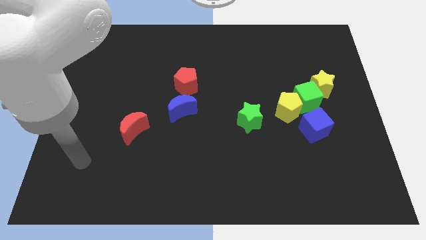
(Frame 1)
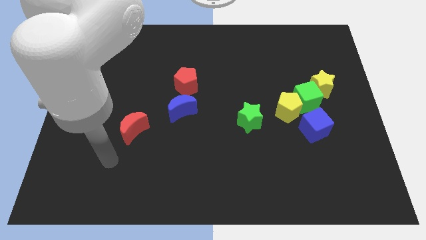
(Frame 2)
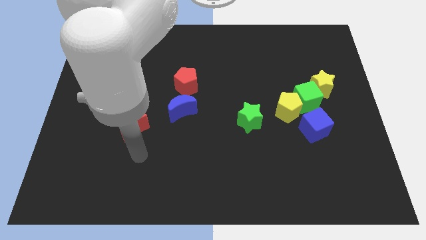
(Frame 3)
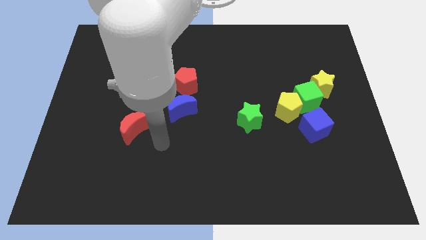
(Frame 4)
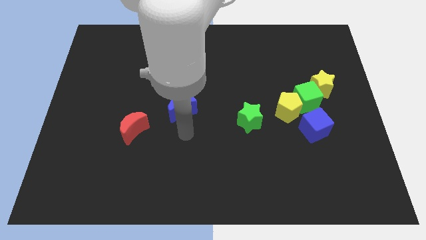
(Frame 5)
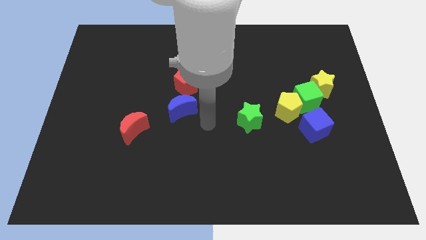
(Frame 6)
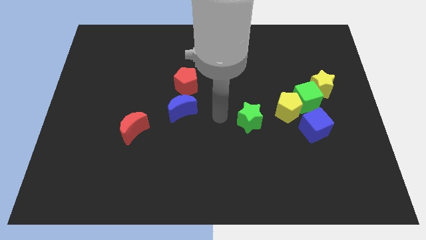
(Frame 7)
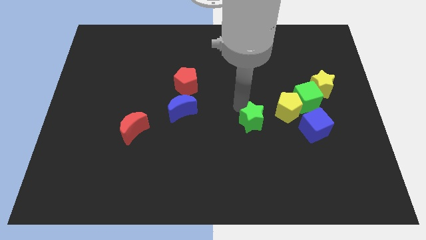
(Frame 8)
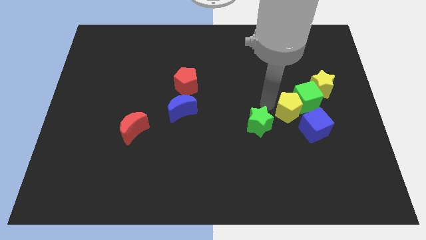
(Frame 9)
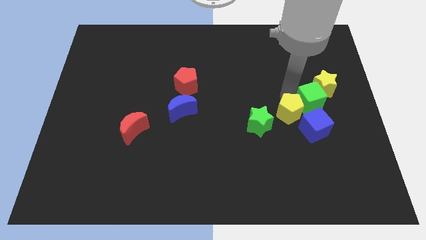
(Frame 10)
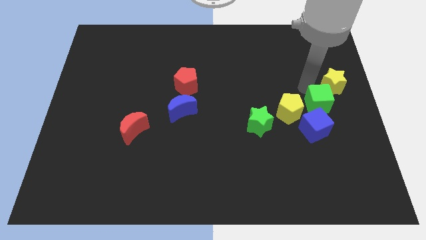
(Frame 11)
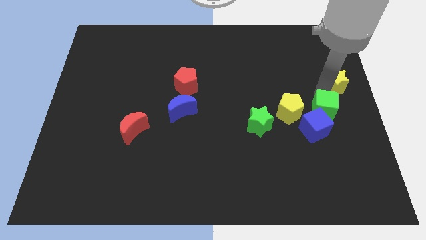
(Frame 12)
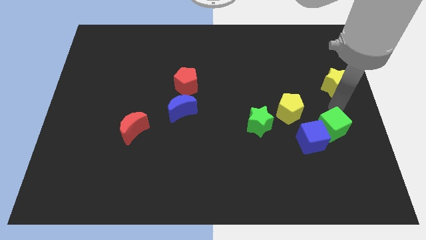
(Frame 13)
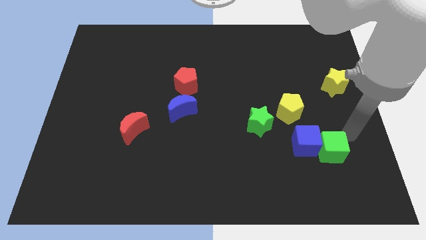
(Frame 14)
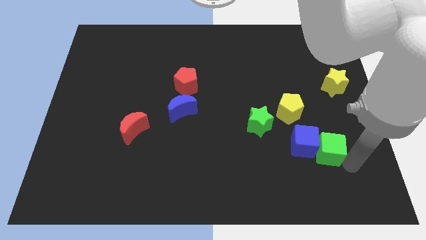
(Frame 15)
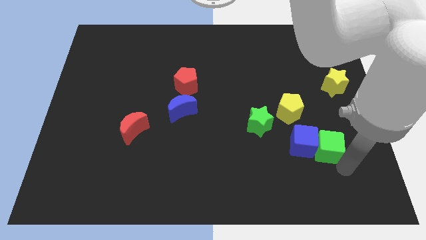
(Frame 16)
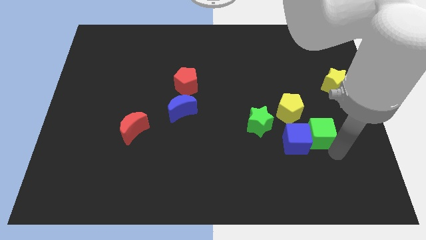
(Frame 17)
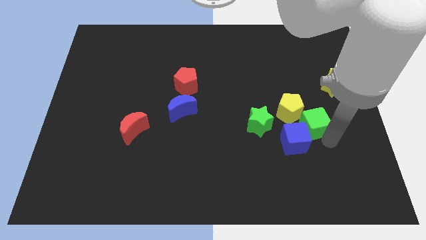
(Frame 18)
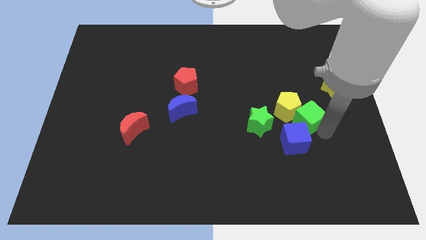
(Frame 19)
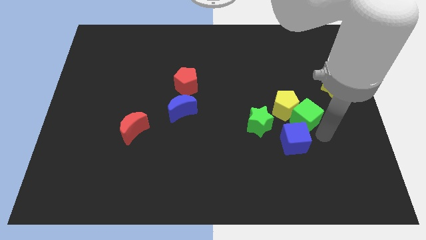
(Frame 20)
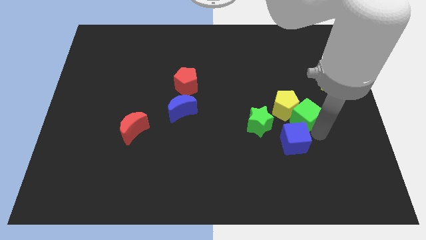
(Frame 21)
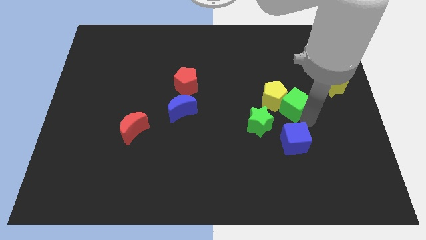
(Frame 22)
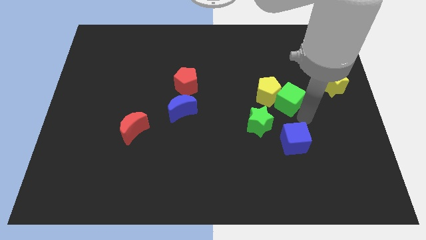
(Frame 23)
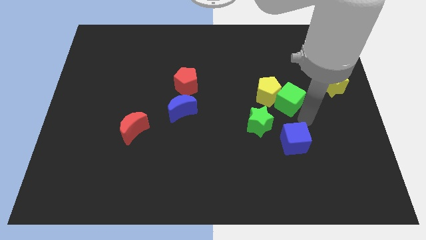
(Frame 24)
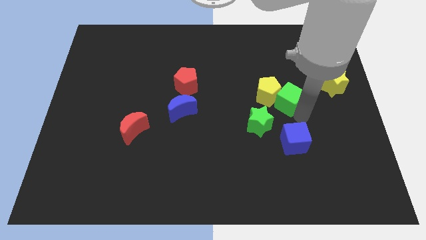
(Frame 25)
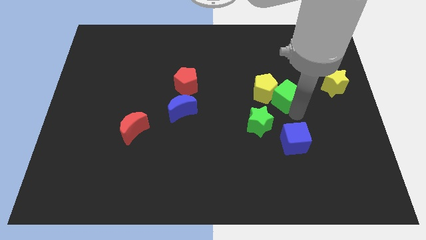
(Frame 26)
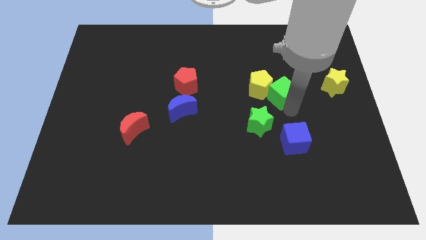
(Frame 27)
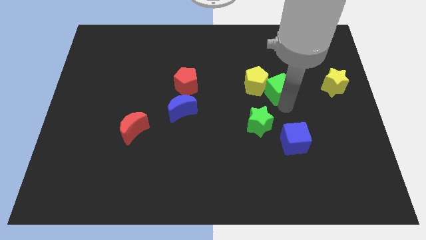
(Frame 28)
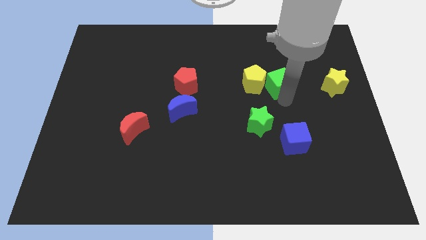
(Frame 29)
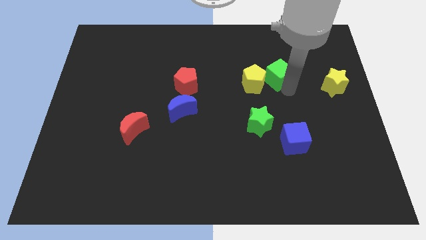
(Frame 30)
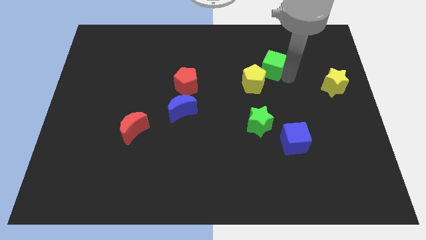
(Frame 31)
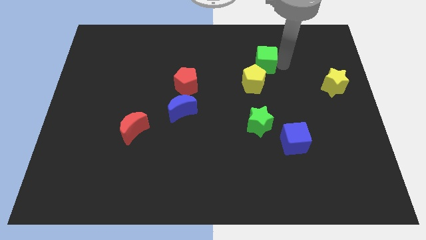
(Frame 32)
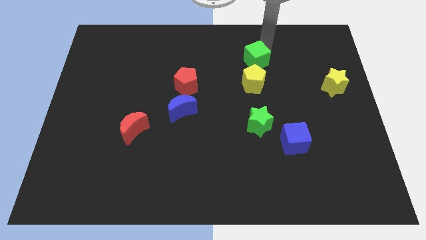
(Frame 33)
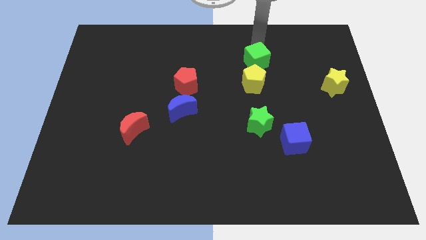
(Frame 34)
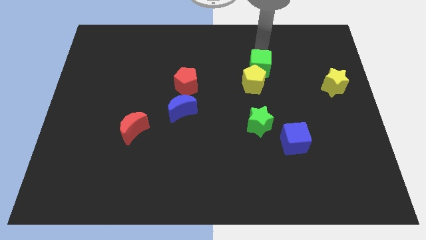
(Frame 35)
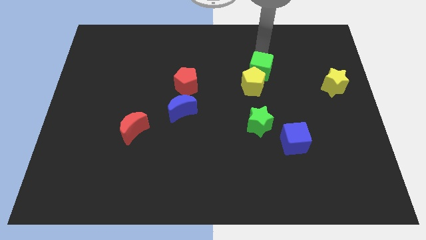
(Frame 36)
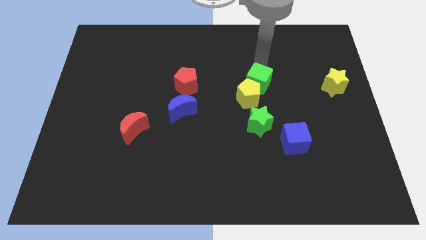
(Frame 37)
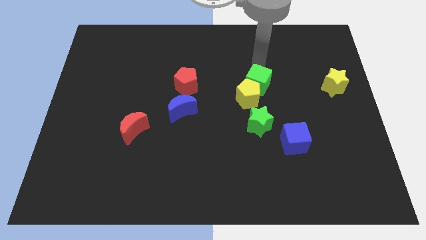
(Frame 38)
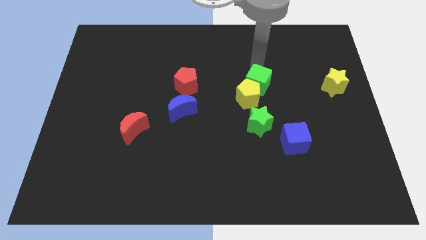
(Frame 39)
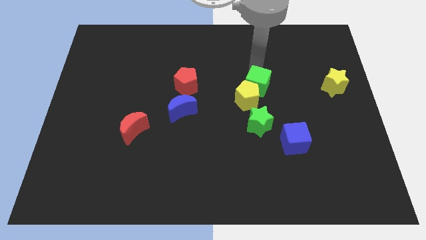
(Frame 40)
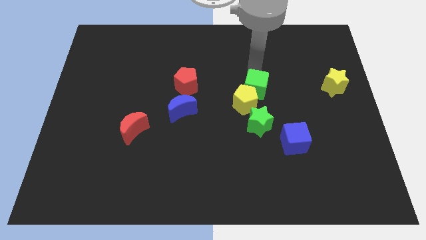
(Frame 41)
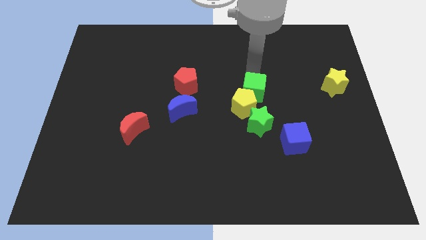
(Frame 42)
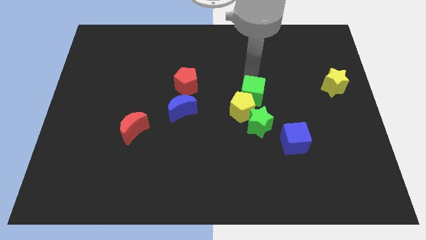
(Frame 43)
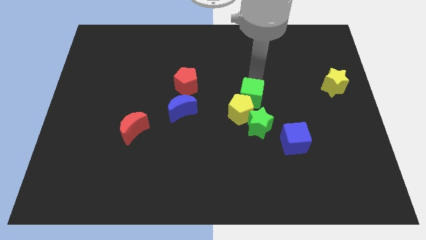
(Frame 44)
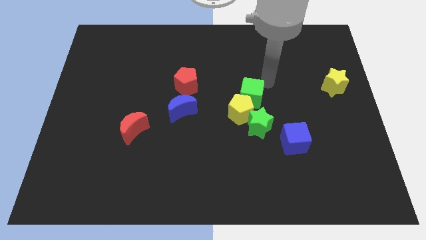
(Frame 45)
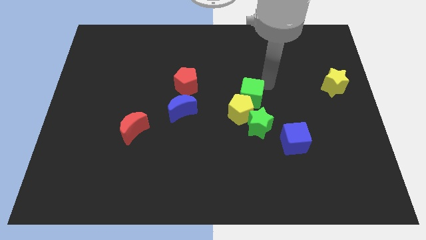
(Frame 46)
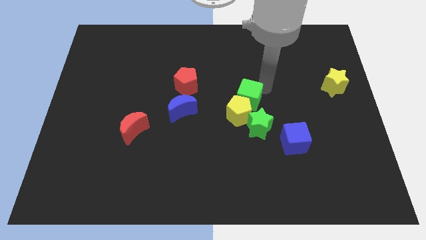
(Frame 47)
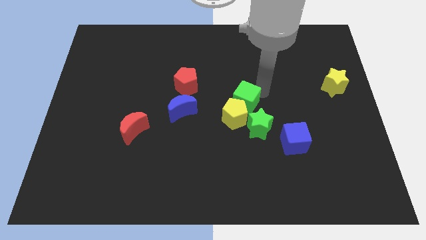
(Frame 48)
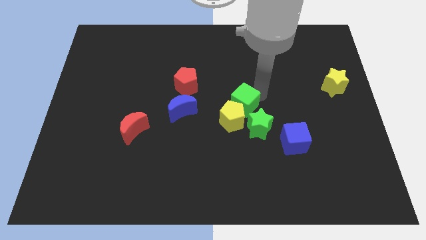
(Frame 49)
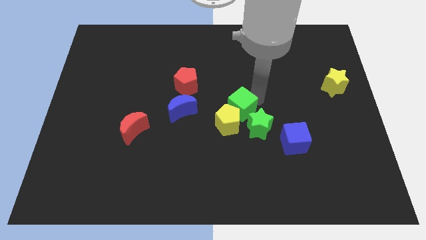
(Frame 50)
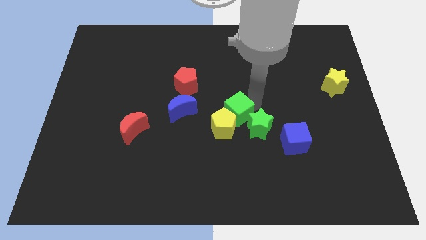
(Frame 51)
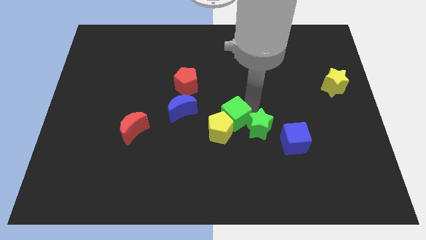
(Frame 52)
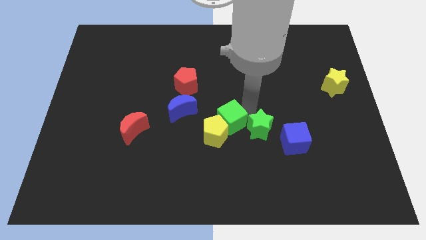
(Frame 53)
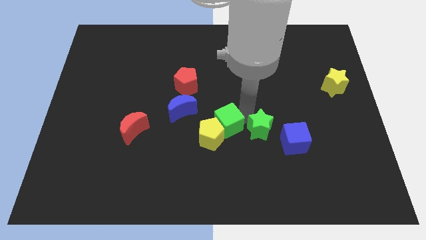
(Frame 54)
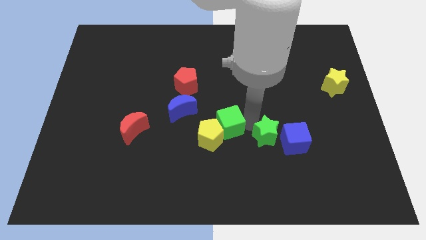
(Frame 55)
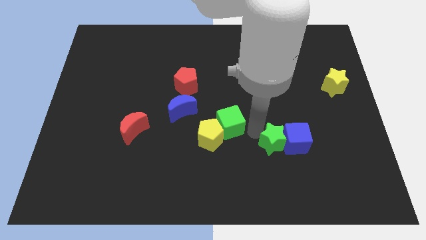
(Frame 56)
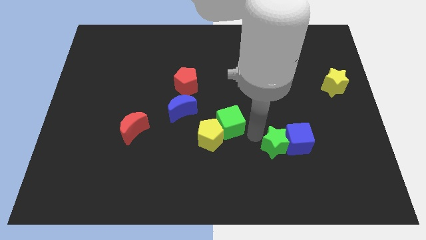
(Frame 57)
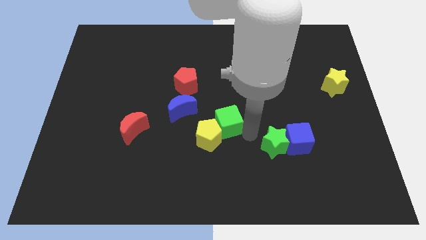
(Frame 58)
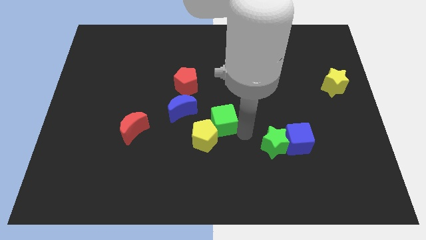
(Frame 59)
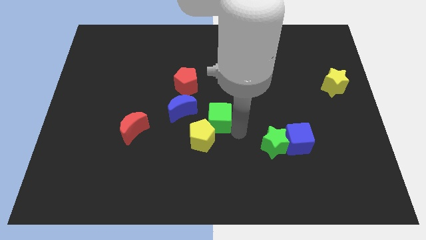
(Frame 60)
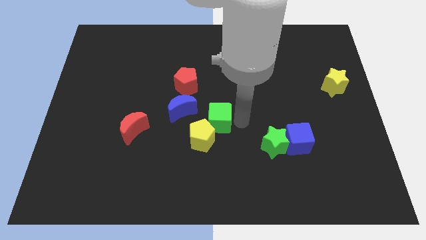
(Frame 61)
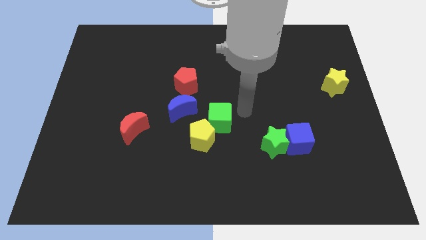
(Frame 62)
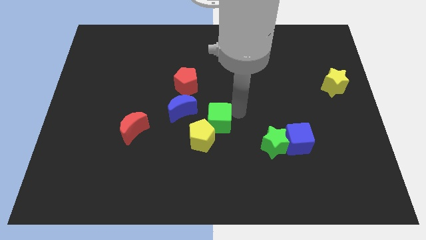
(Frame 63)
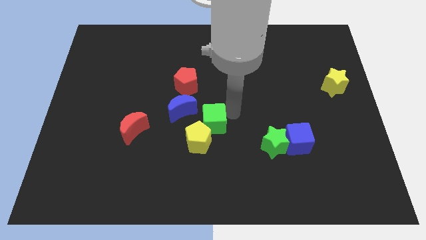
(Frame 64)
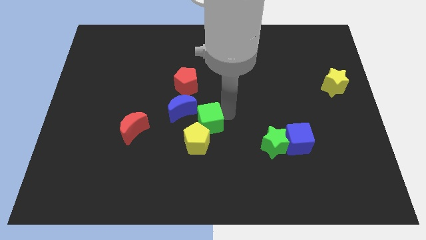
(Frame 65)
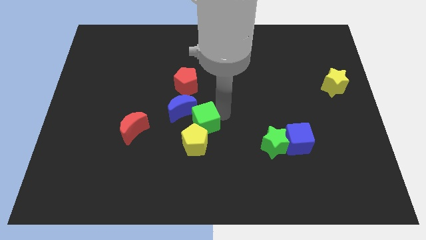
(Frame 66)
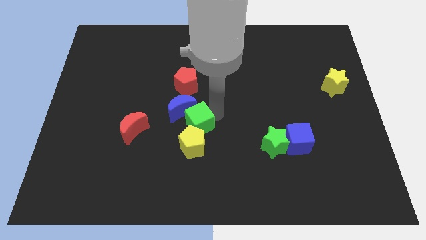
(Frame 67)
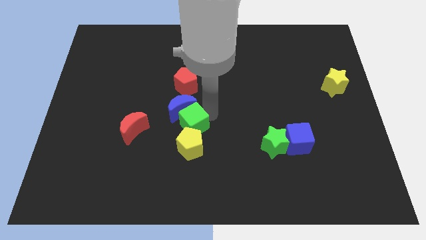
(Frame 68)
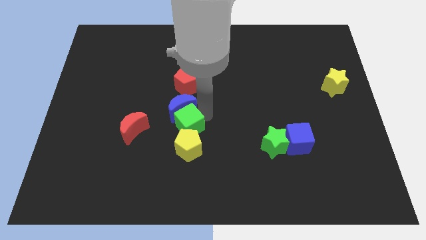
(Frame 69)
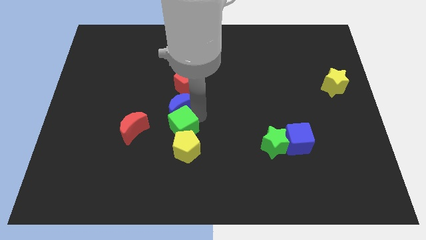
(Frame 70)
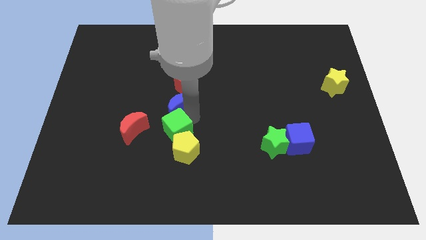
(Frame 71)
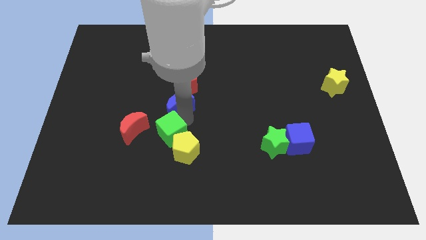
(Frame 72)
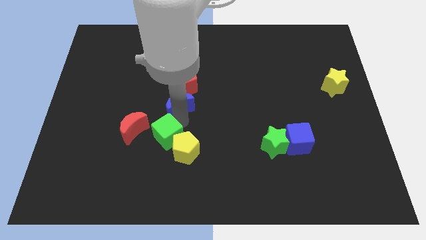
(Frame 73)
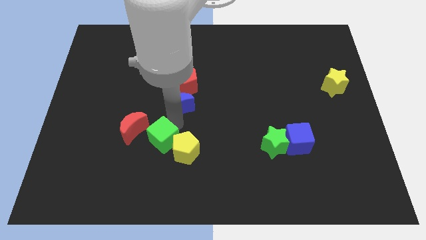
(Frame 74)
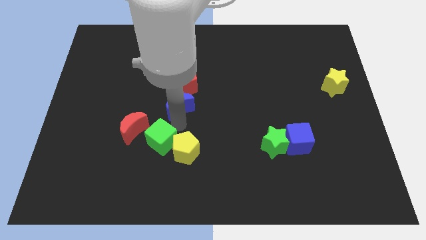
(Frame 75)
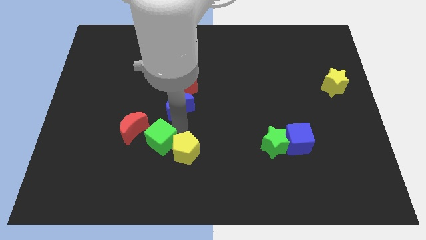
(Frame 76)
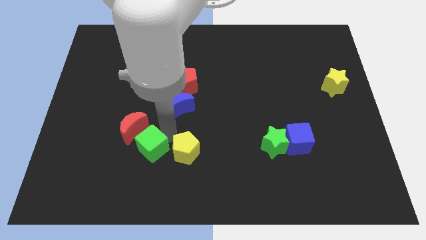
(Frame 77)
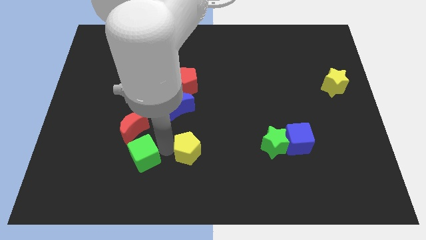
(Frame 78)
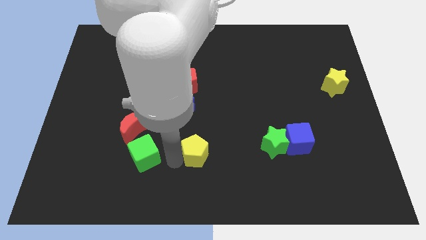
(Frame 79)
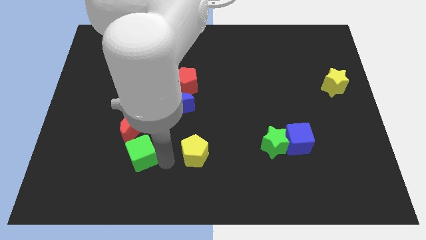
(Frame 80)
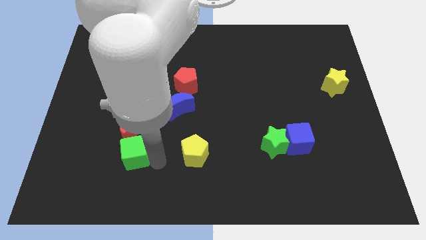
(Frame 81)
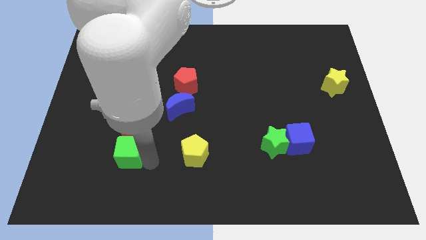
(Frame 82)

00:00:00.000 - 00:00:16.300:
move the green cube to the bottom left side of the red moon
